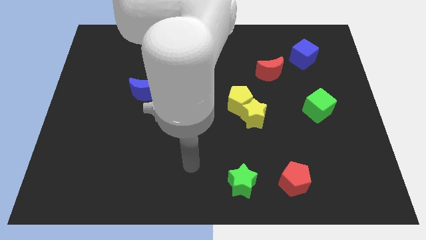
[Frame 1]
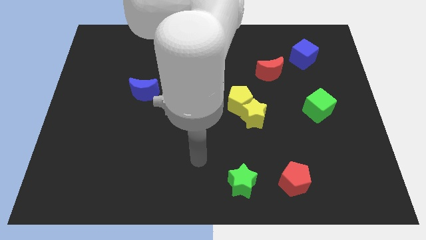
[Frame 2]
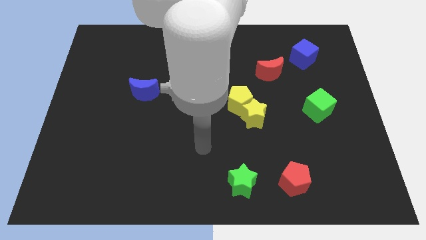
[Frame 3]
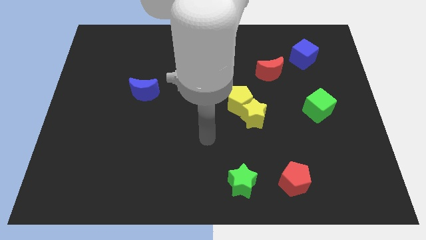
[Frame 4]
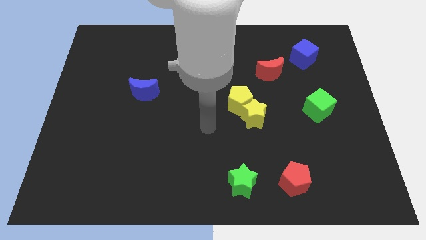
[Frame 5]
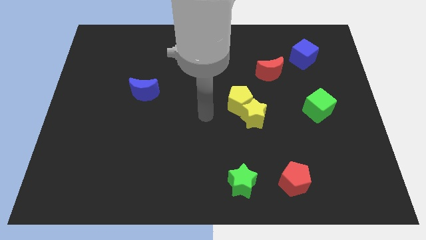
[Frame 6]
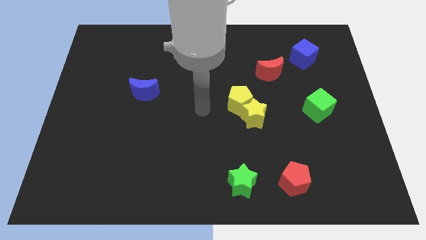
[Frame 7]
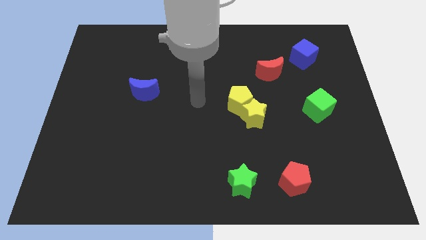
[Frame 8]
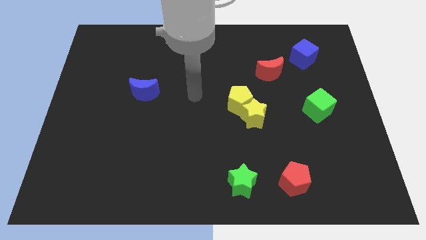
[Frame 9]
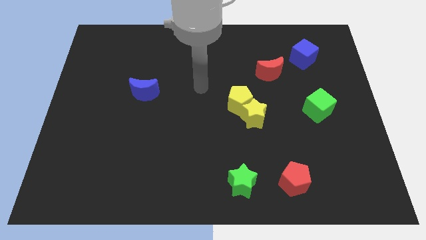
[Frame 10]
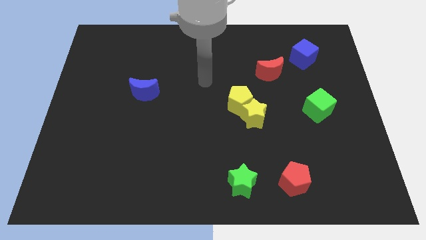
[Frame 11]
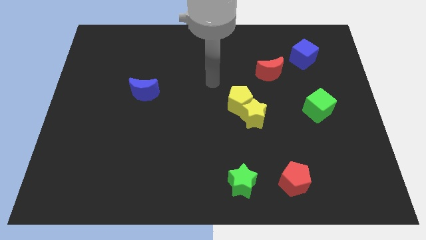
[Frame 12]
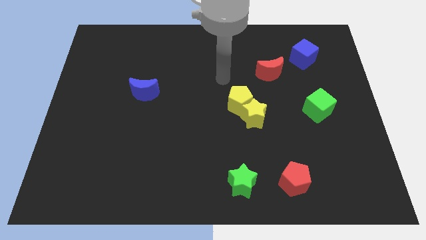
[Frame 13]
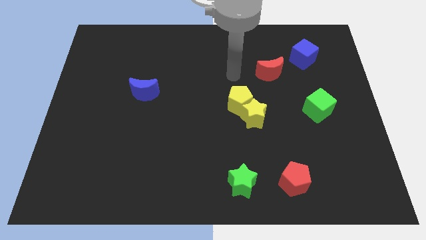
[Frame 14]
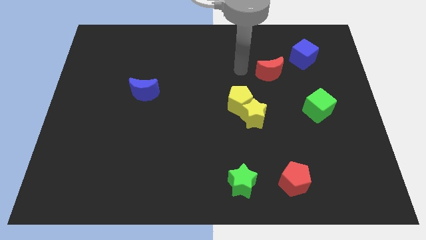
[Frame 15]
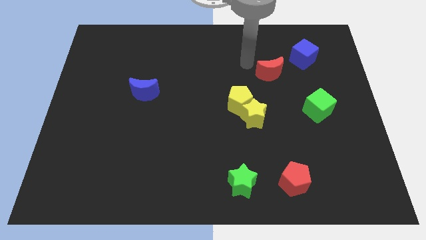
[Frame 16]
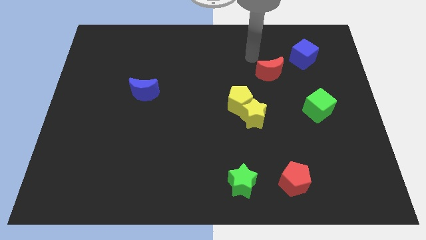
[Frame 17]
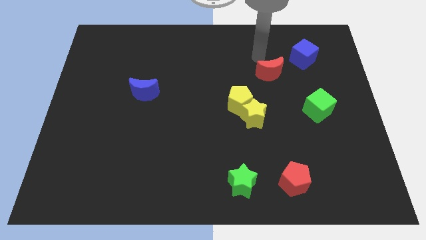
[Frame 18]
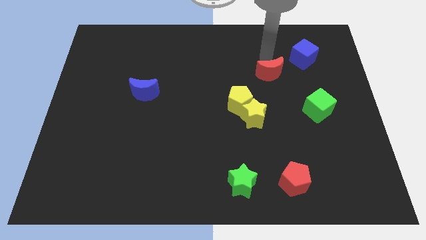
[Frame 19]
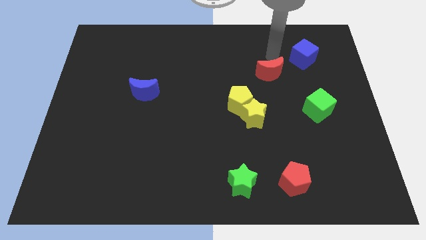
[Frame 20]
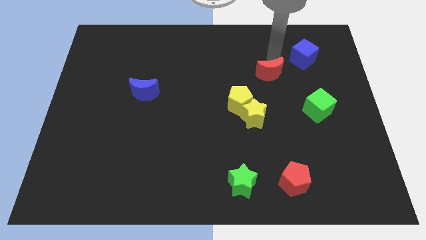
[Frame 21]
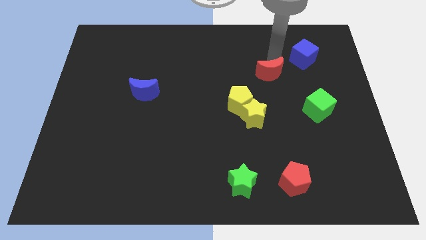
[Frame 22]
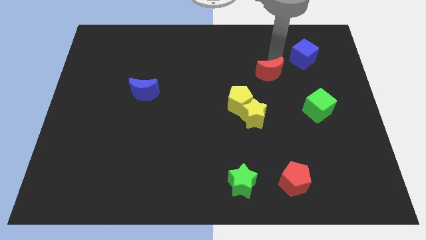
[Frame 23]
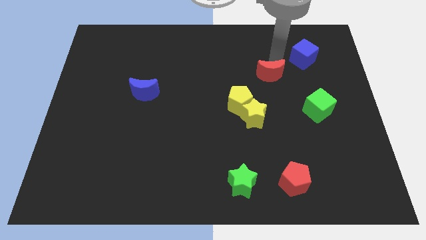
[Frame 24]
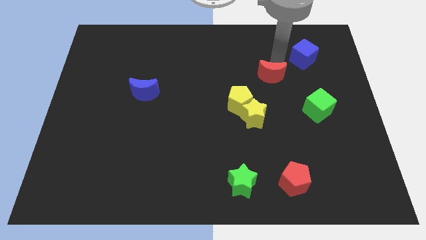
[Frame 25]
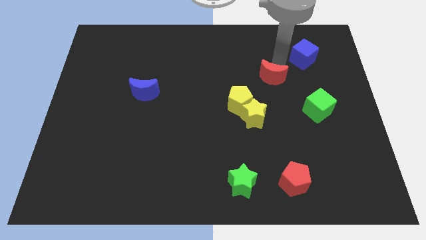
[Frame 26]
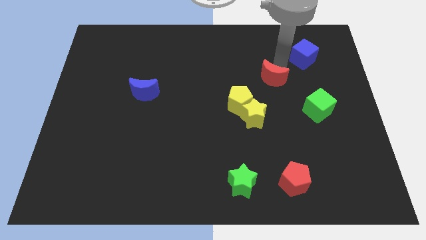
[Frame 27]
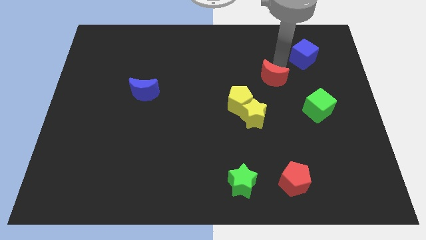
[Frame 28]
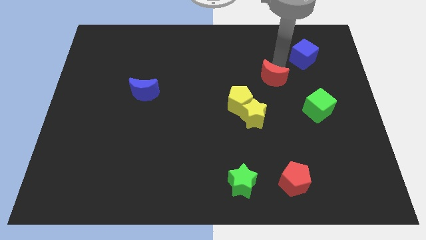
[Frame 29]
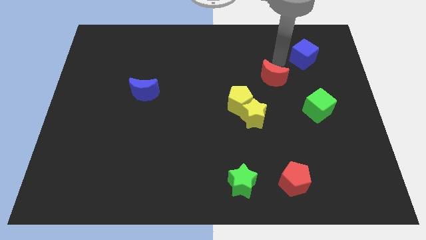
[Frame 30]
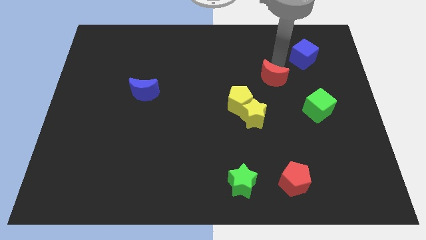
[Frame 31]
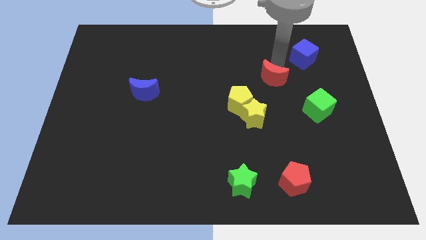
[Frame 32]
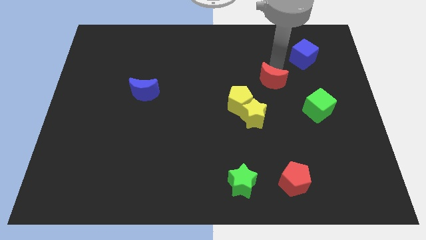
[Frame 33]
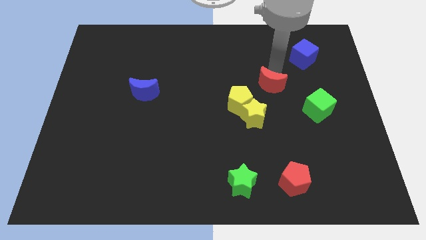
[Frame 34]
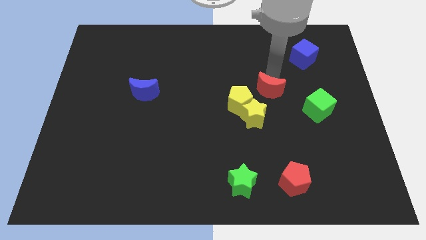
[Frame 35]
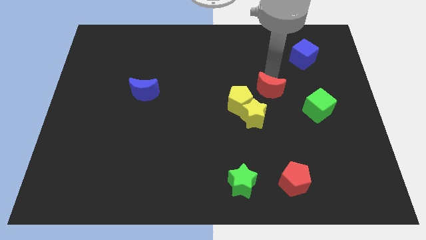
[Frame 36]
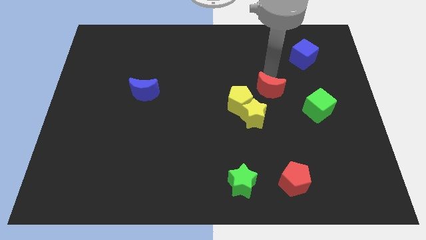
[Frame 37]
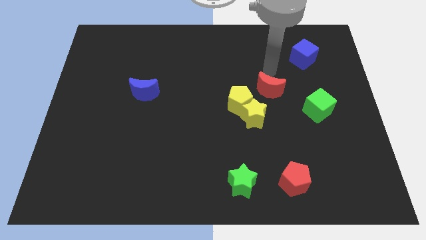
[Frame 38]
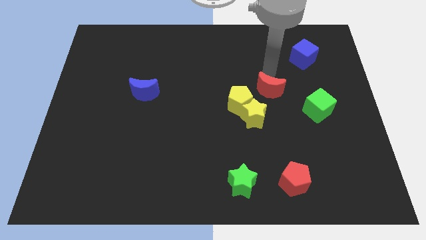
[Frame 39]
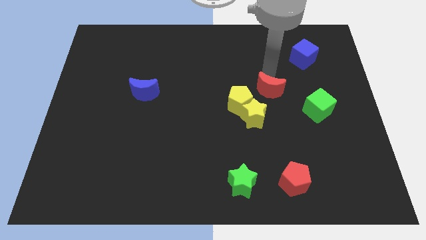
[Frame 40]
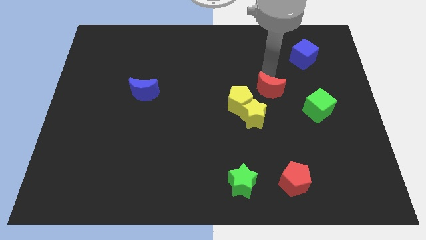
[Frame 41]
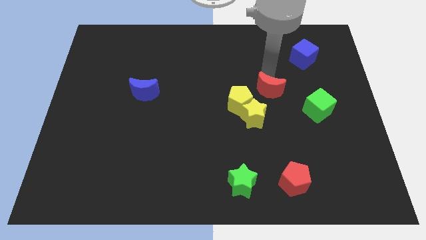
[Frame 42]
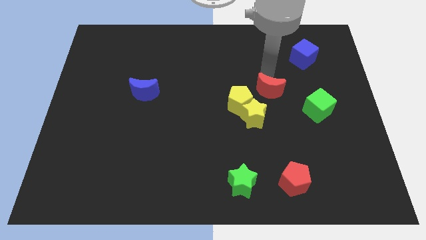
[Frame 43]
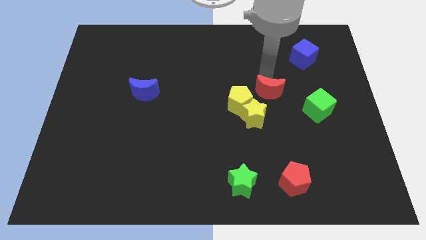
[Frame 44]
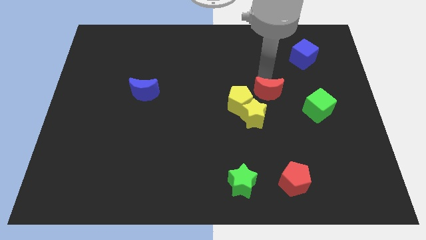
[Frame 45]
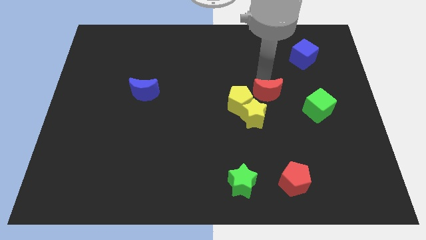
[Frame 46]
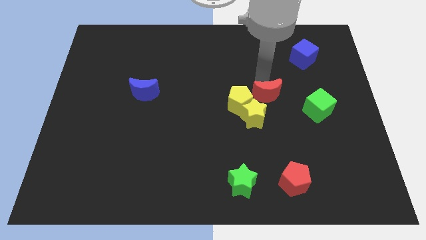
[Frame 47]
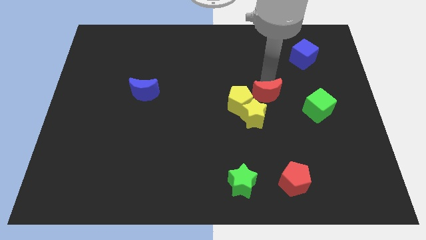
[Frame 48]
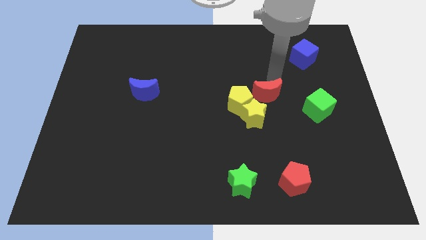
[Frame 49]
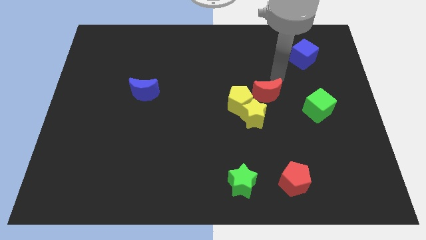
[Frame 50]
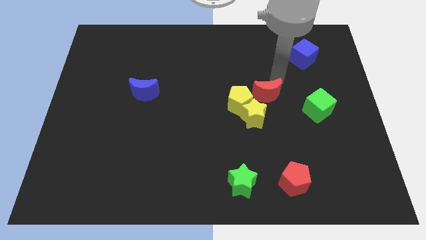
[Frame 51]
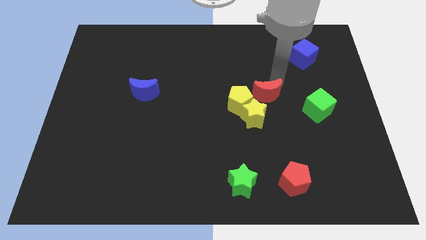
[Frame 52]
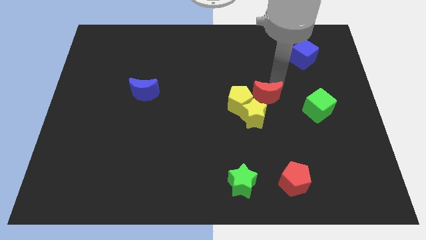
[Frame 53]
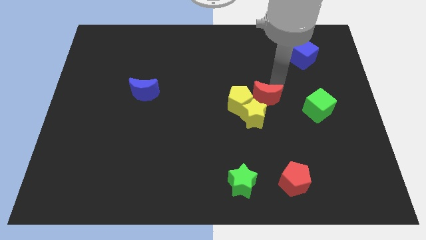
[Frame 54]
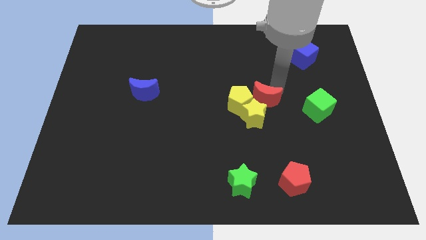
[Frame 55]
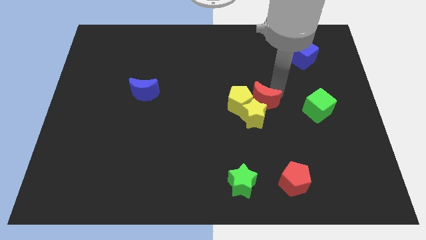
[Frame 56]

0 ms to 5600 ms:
push the red moon close to the yellow star

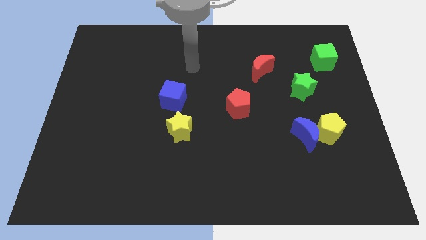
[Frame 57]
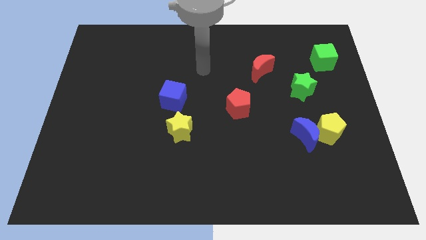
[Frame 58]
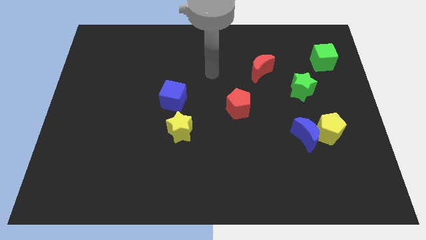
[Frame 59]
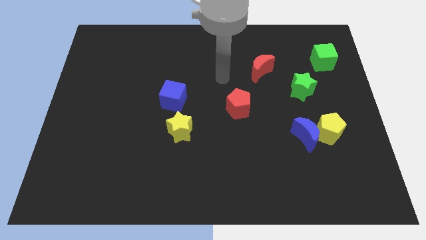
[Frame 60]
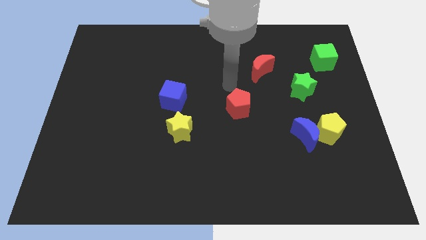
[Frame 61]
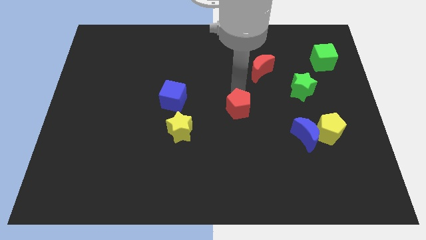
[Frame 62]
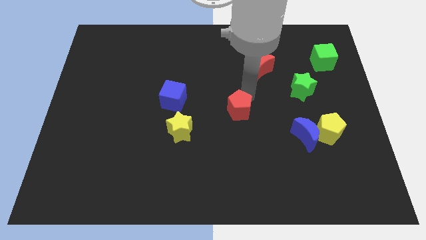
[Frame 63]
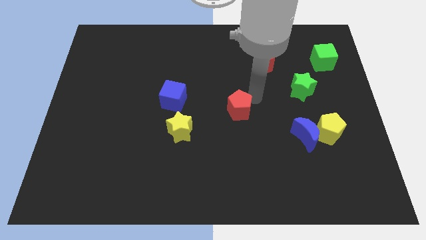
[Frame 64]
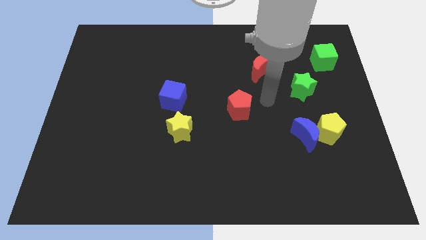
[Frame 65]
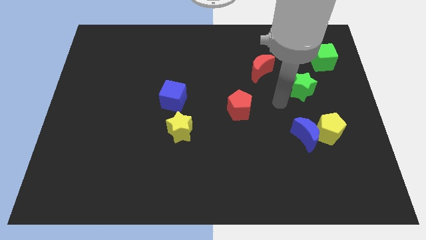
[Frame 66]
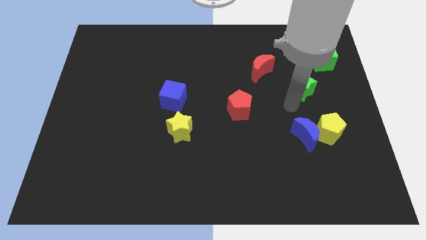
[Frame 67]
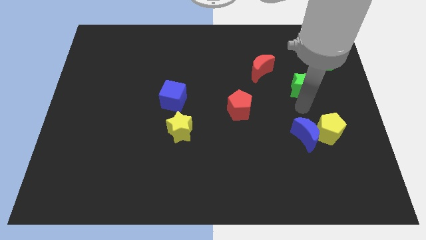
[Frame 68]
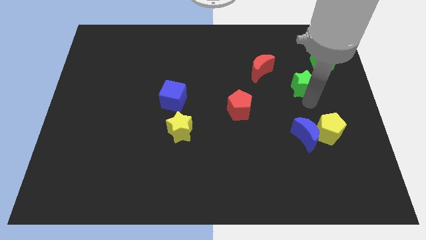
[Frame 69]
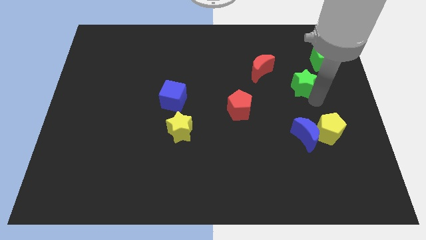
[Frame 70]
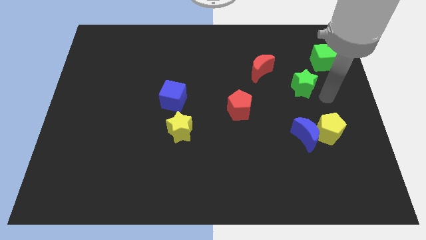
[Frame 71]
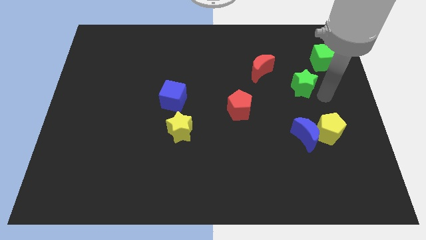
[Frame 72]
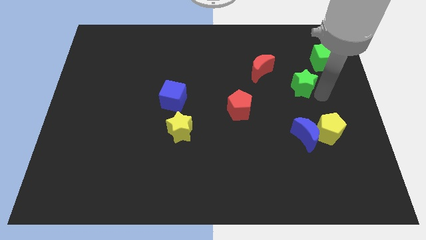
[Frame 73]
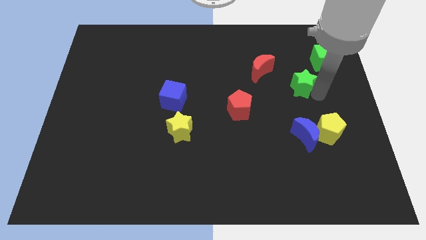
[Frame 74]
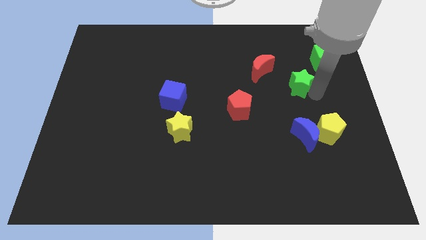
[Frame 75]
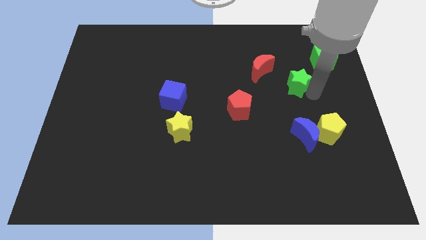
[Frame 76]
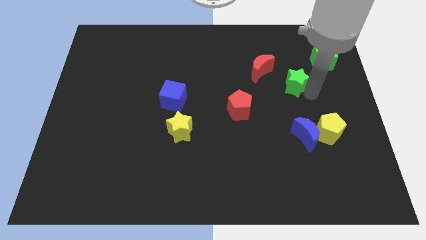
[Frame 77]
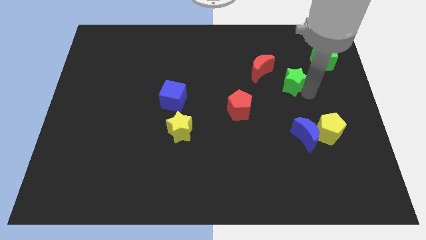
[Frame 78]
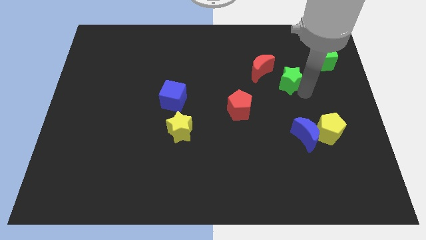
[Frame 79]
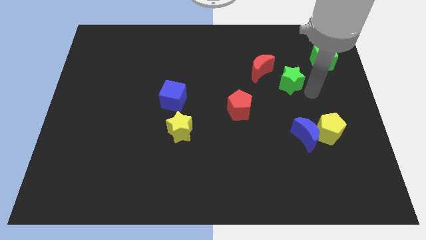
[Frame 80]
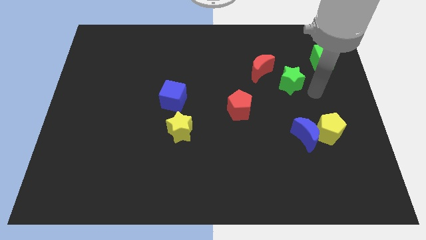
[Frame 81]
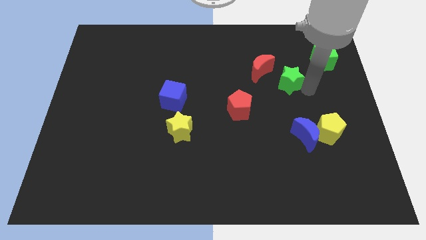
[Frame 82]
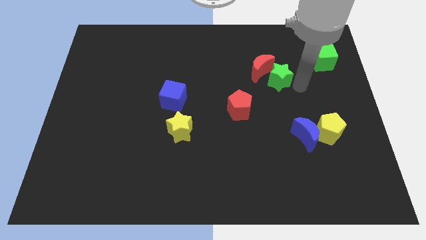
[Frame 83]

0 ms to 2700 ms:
move the green star next to the red moon
